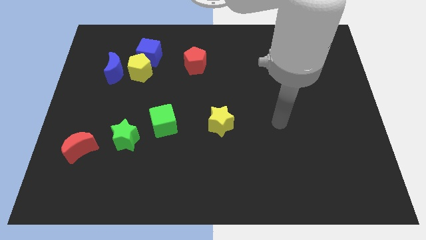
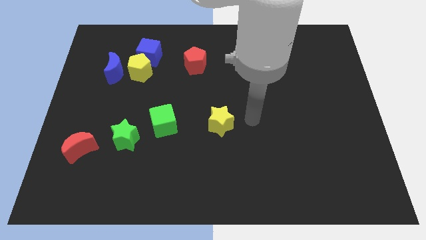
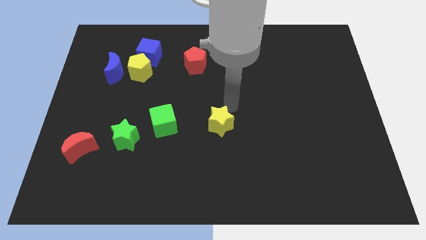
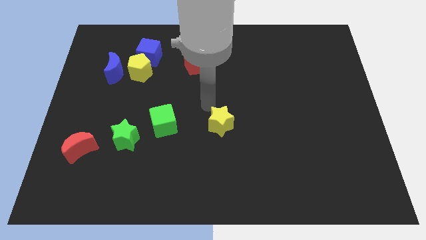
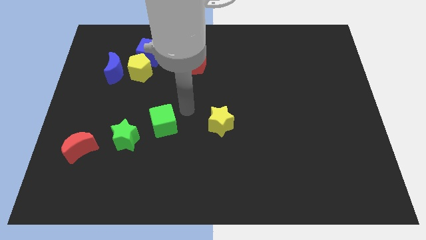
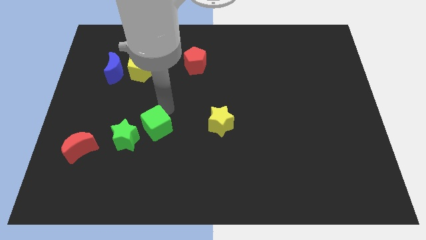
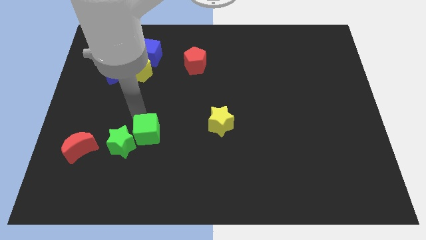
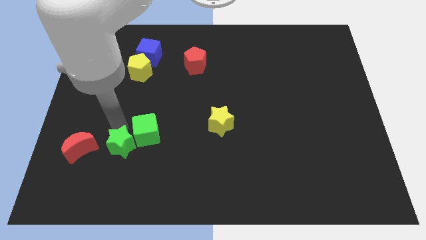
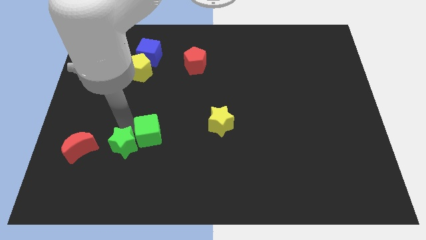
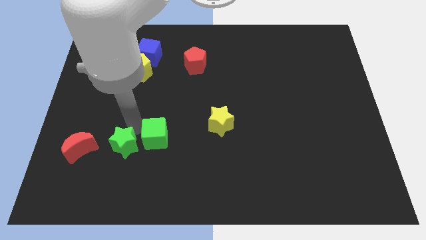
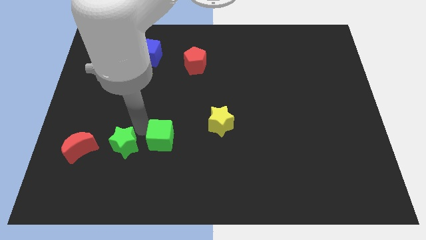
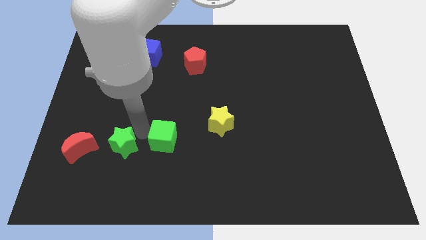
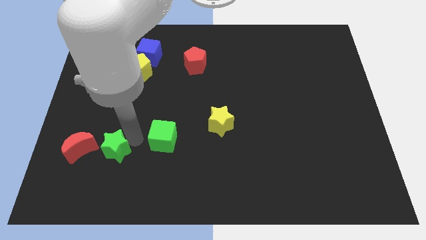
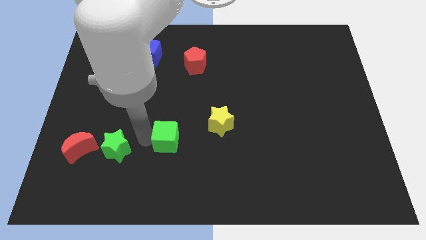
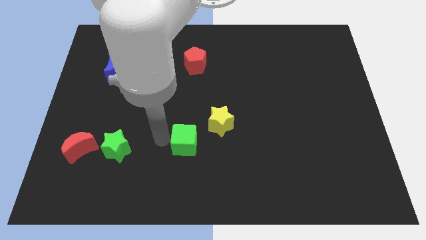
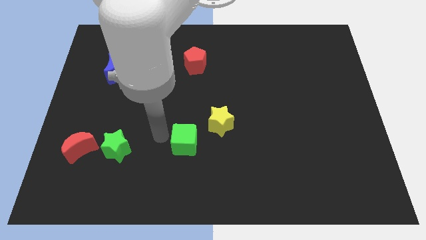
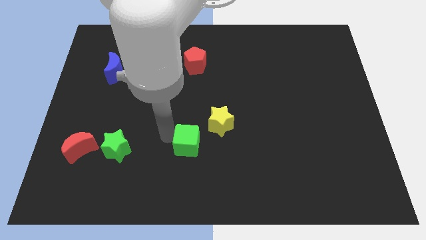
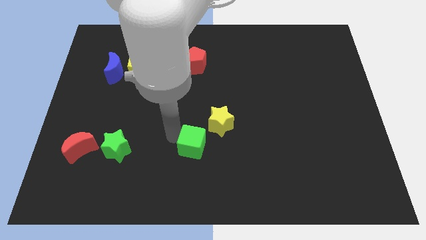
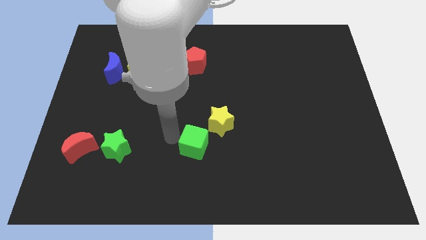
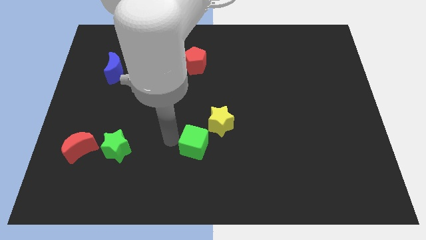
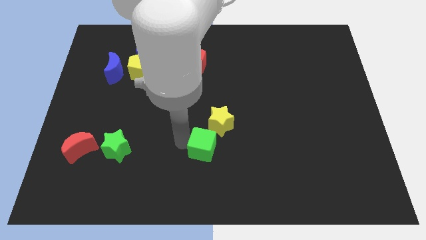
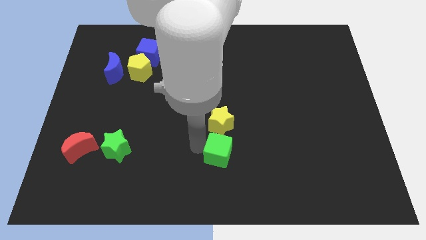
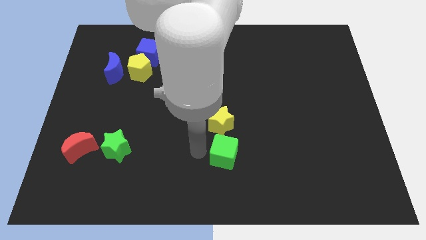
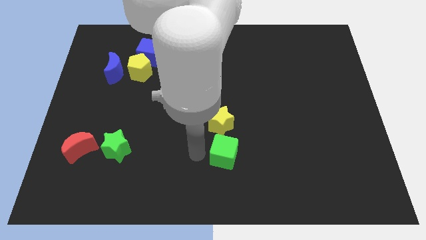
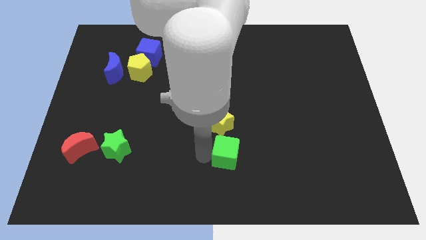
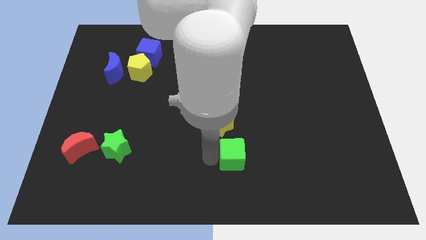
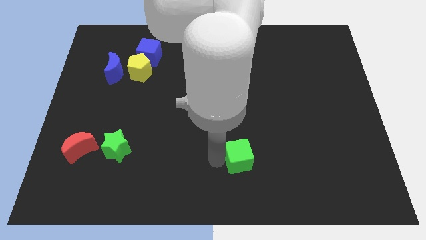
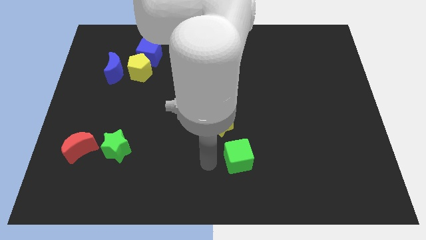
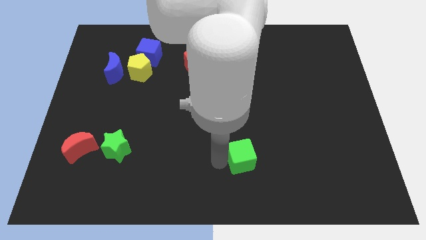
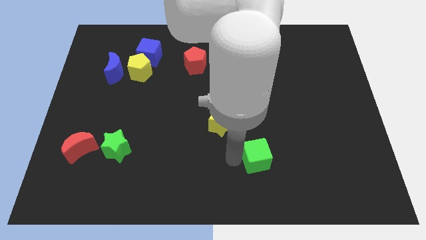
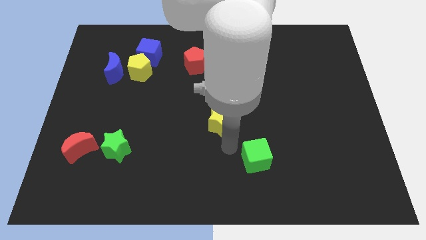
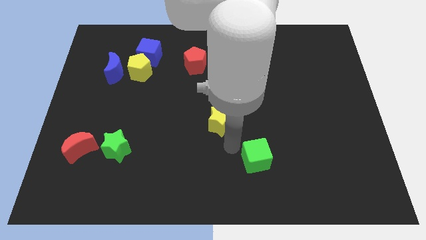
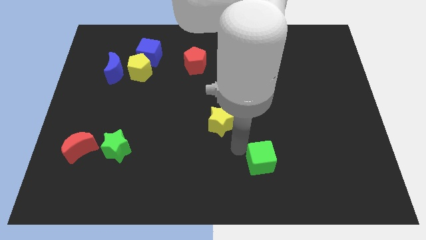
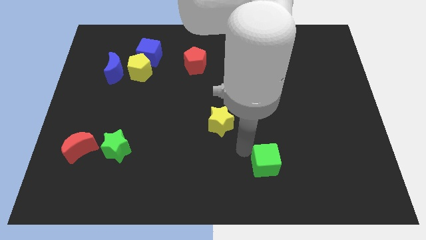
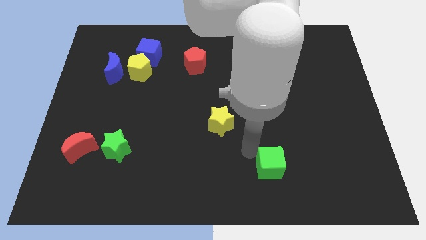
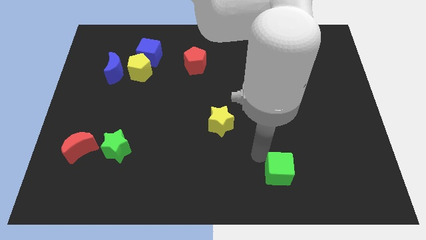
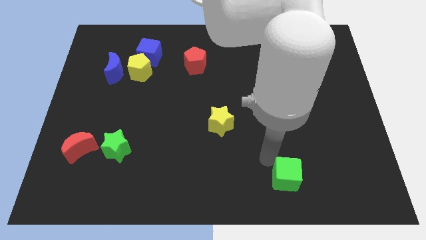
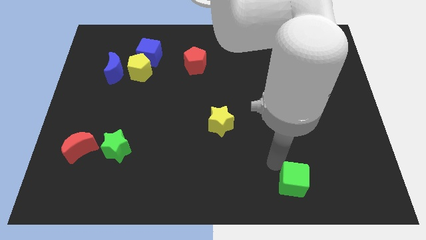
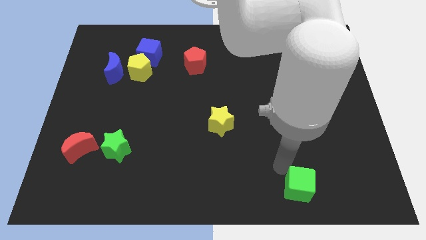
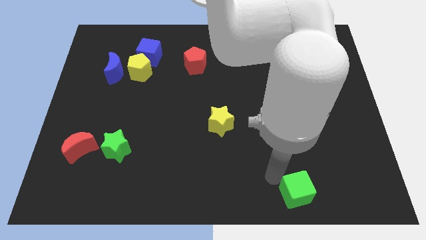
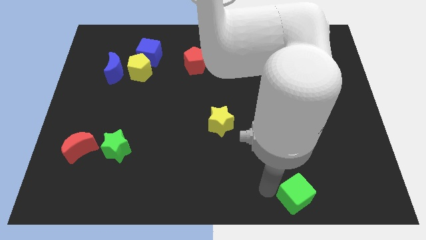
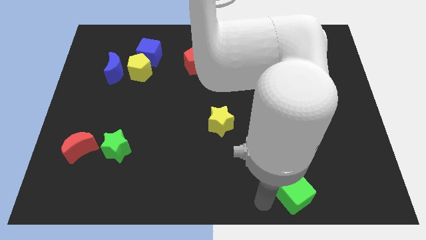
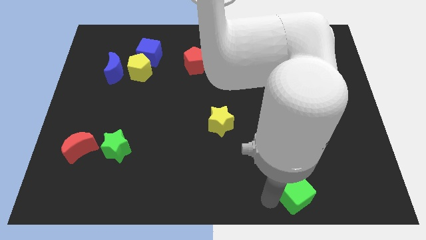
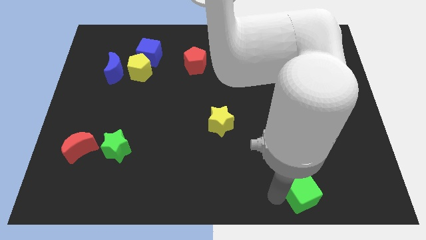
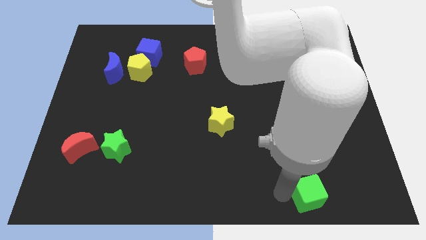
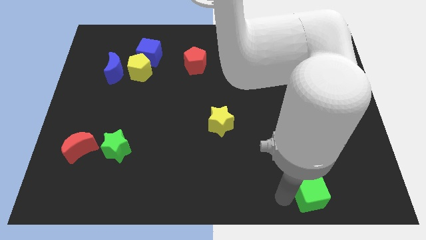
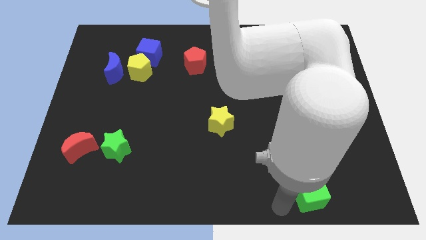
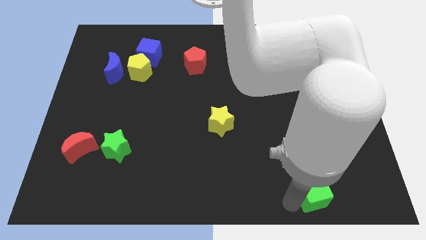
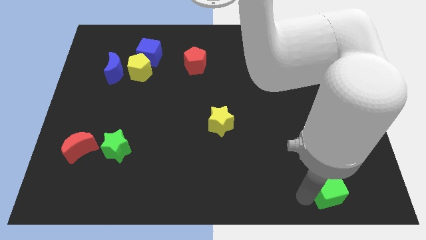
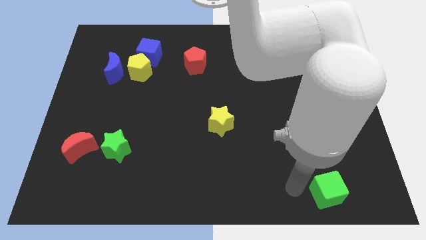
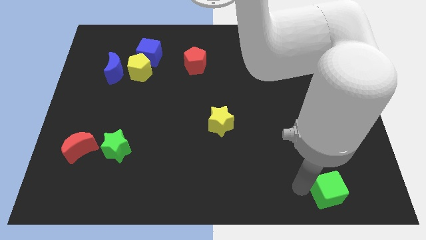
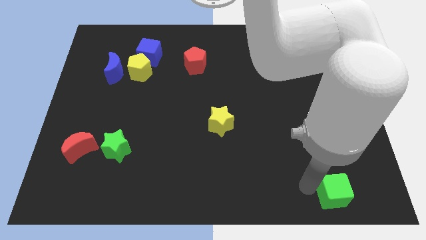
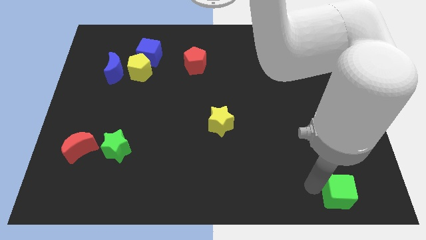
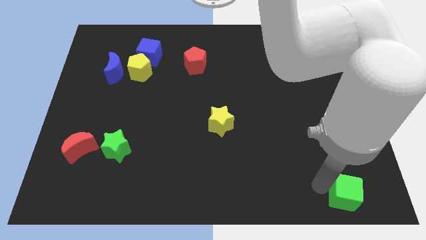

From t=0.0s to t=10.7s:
move the green cube to the bottom right of the board
